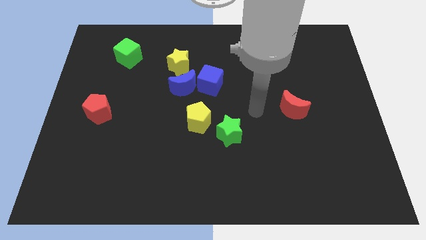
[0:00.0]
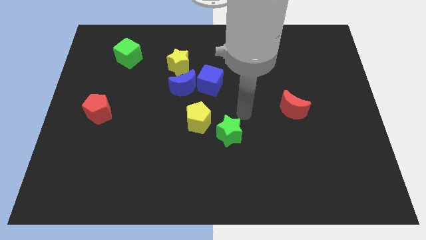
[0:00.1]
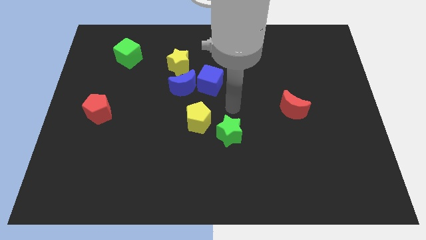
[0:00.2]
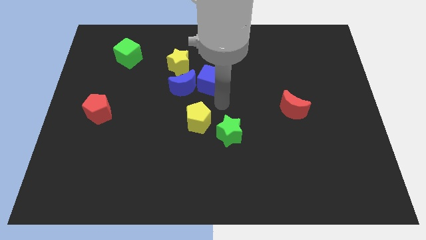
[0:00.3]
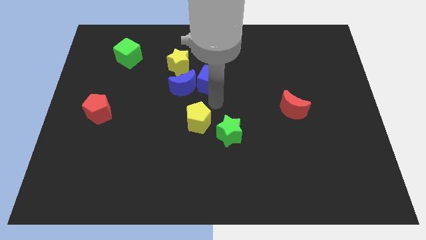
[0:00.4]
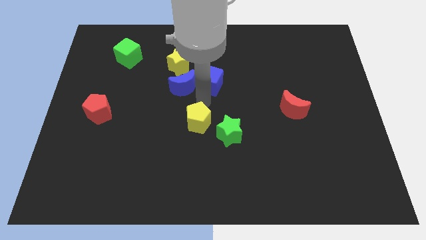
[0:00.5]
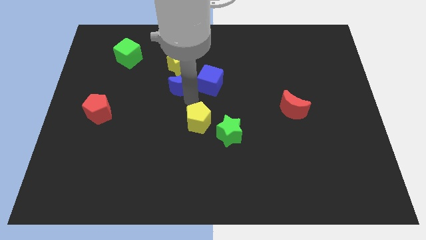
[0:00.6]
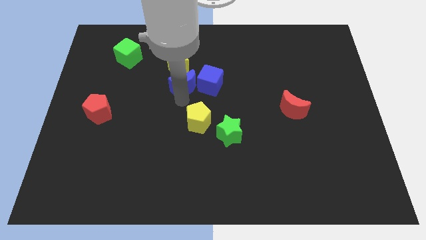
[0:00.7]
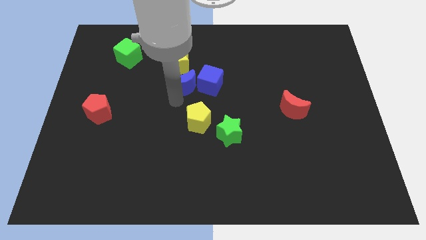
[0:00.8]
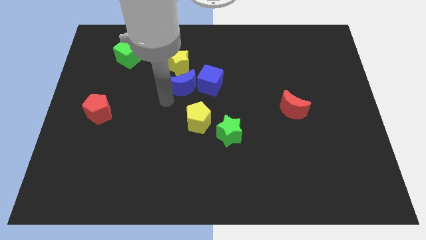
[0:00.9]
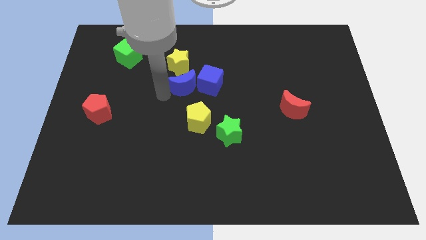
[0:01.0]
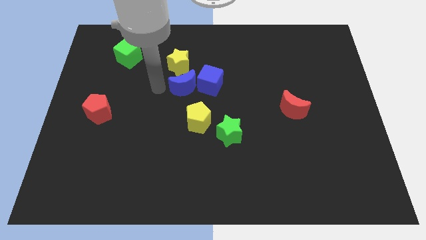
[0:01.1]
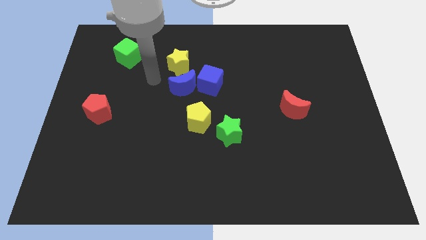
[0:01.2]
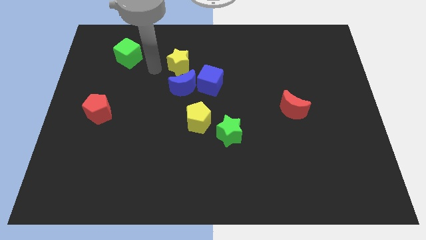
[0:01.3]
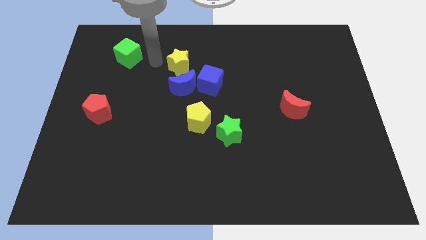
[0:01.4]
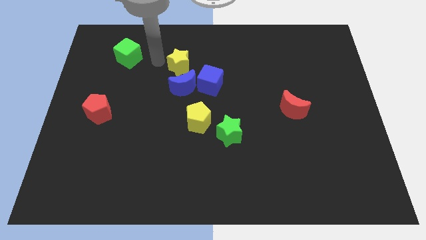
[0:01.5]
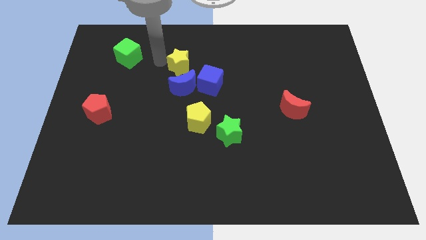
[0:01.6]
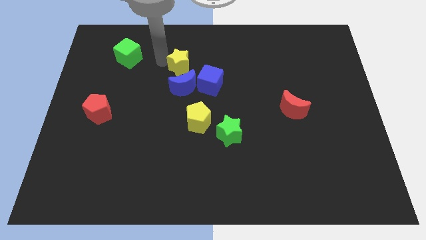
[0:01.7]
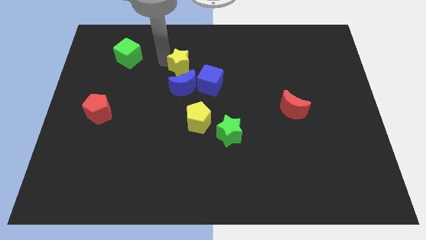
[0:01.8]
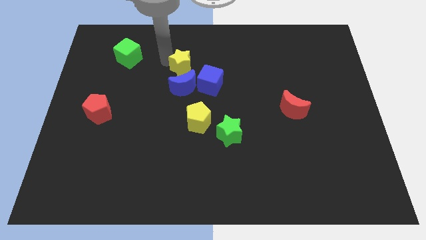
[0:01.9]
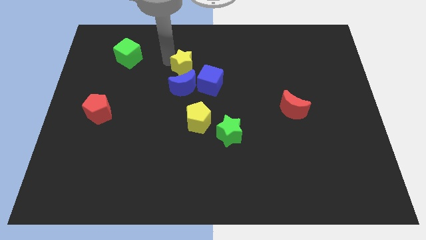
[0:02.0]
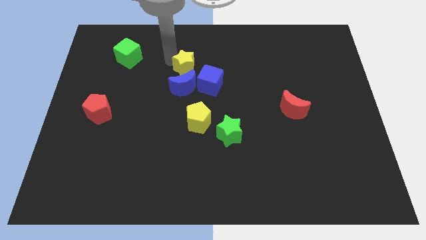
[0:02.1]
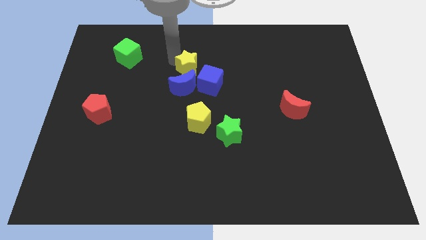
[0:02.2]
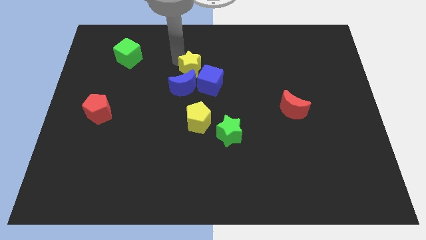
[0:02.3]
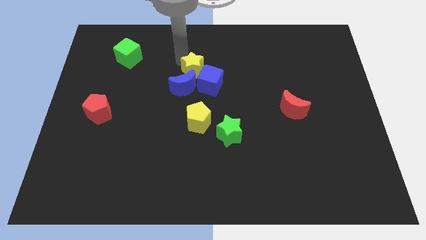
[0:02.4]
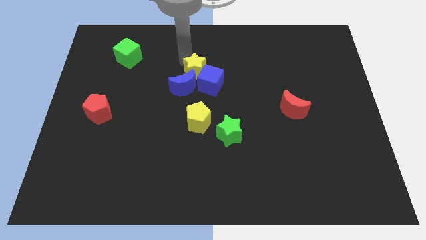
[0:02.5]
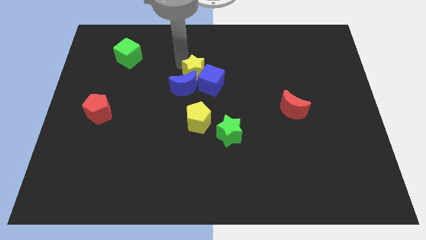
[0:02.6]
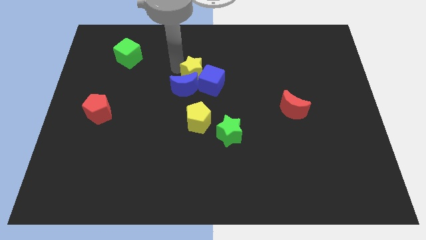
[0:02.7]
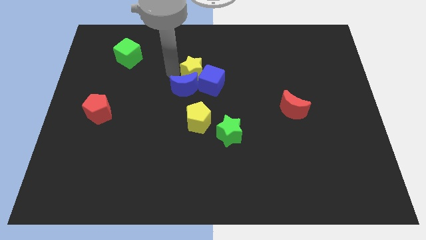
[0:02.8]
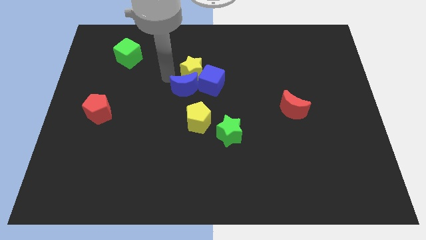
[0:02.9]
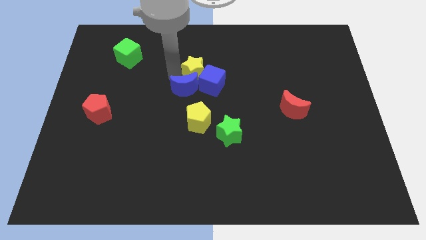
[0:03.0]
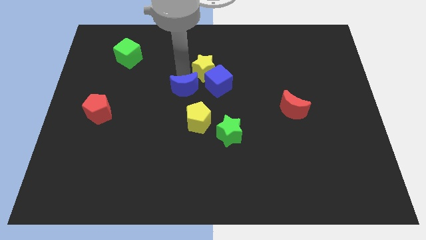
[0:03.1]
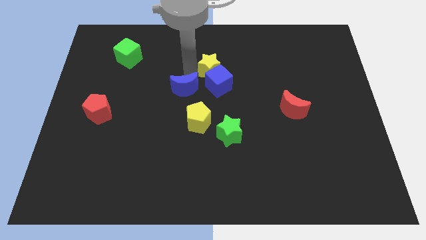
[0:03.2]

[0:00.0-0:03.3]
move the yellow star to the right somewhat

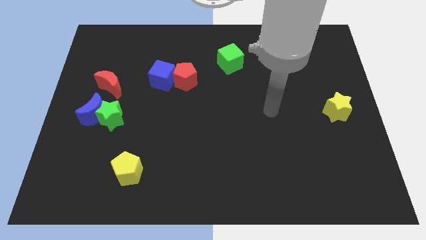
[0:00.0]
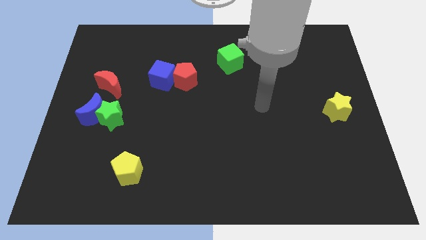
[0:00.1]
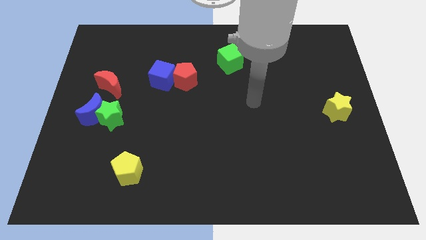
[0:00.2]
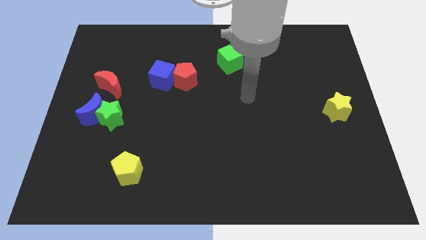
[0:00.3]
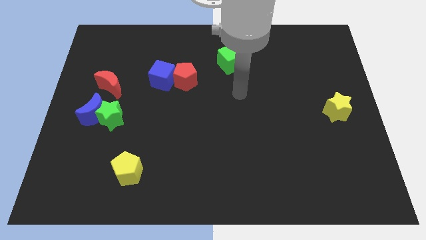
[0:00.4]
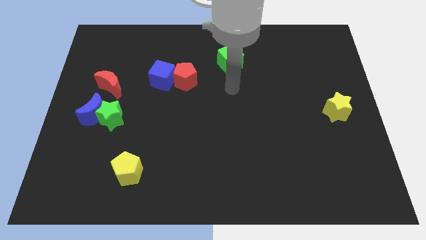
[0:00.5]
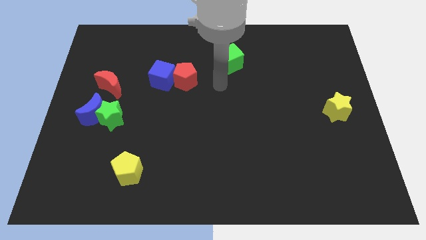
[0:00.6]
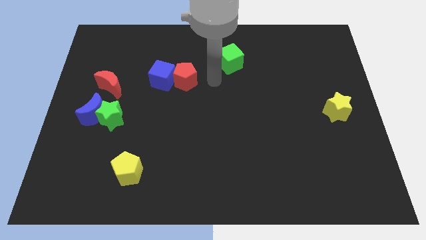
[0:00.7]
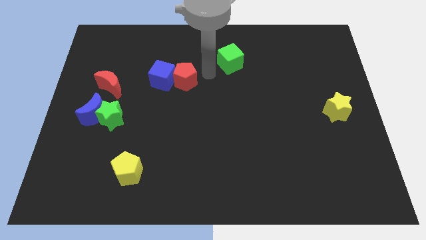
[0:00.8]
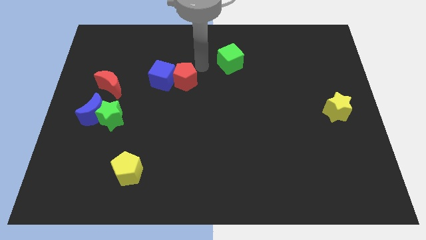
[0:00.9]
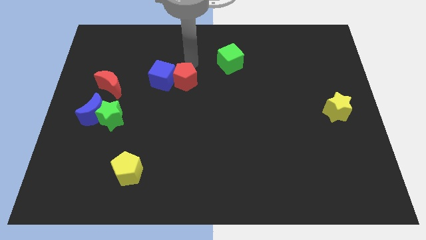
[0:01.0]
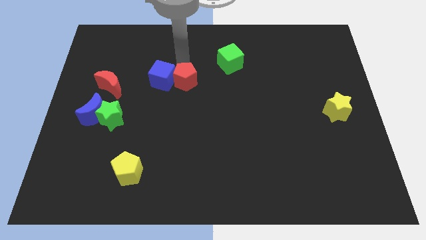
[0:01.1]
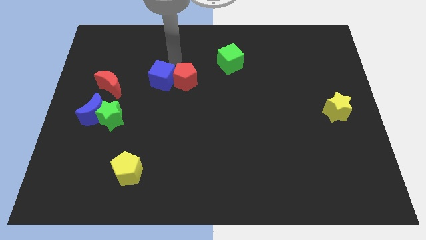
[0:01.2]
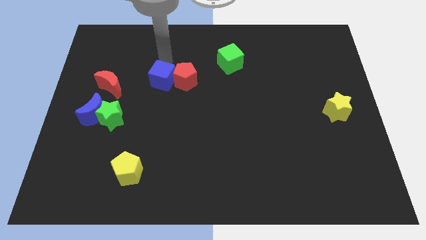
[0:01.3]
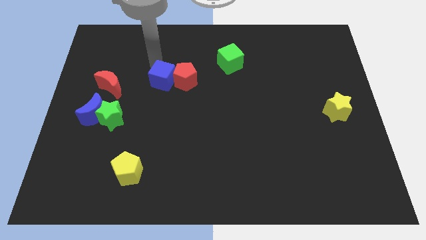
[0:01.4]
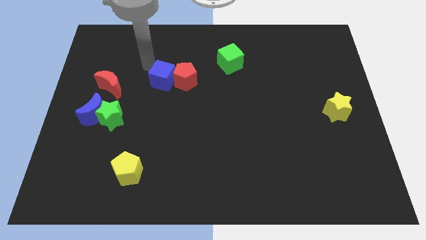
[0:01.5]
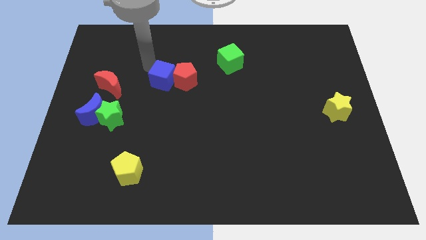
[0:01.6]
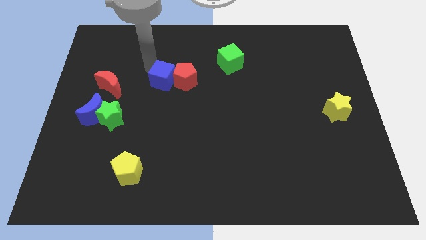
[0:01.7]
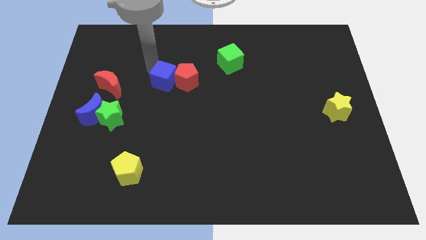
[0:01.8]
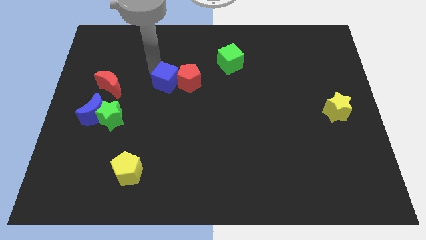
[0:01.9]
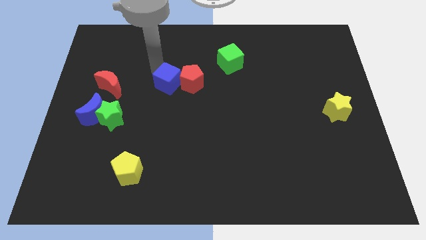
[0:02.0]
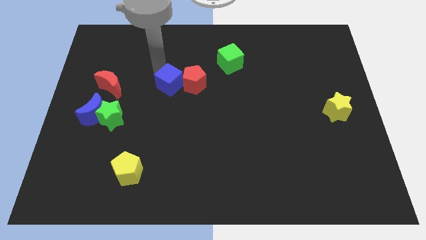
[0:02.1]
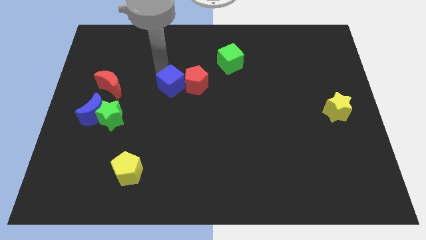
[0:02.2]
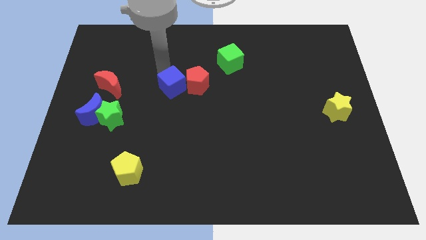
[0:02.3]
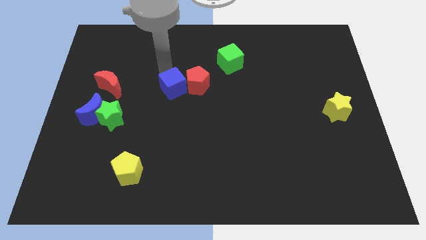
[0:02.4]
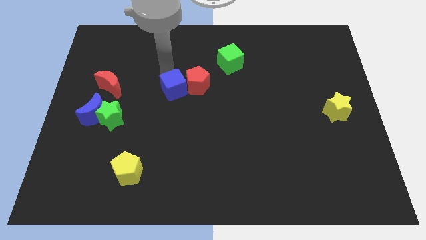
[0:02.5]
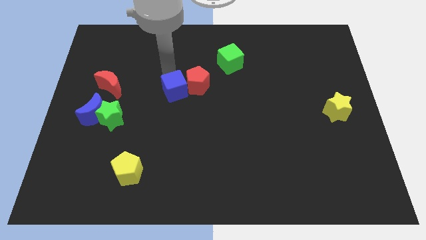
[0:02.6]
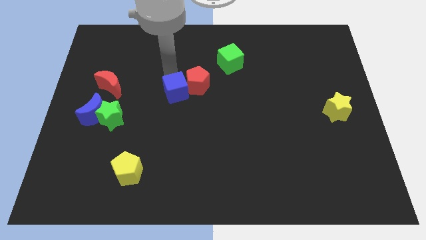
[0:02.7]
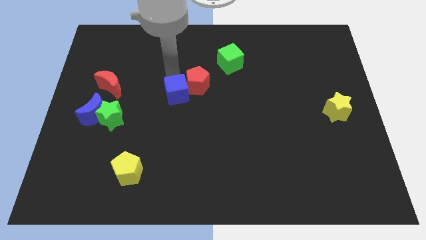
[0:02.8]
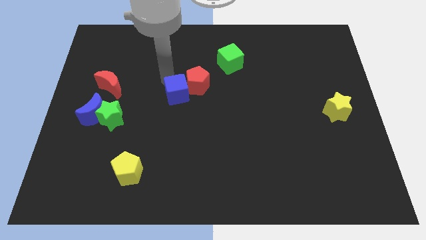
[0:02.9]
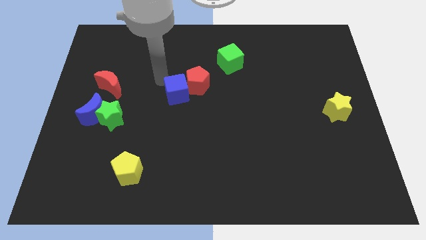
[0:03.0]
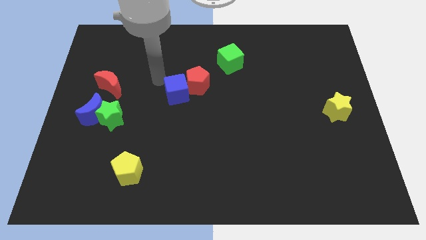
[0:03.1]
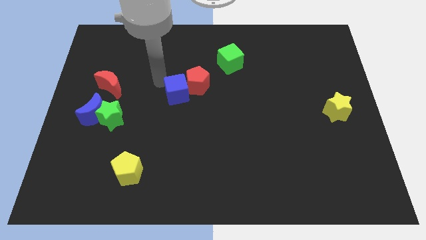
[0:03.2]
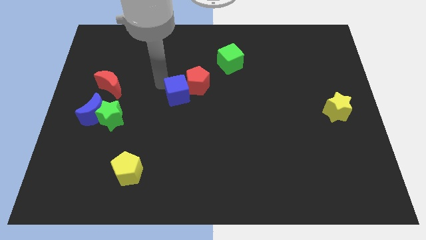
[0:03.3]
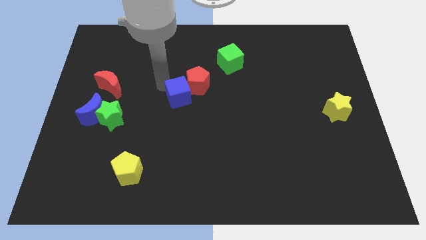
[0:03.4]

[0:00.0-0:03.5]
slightly push the blue cube down and right diagonally

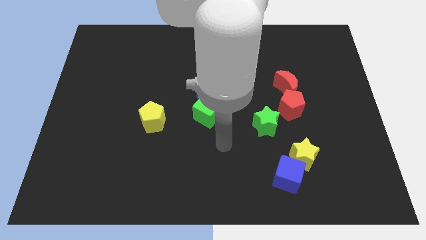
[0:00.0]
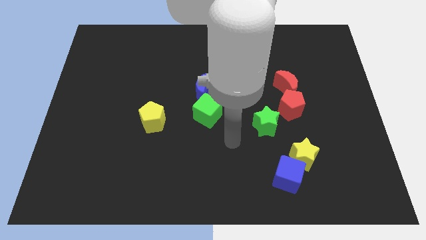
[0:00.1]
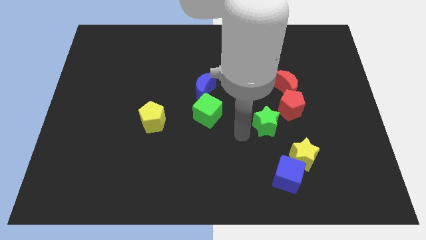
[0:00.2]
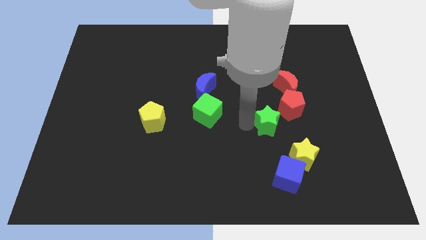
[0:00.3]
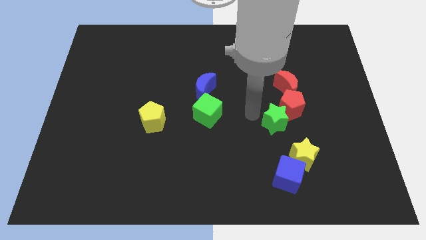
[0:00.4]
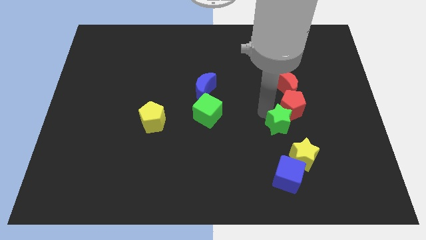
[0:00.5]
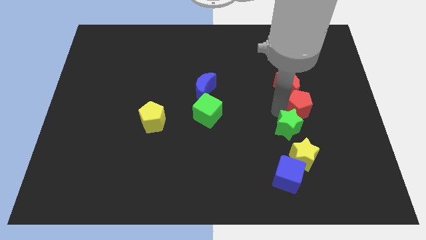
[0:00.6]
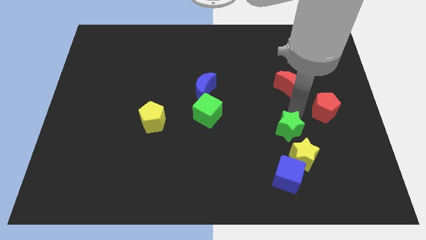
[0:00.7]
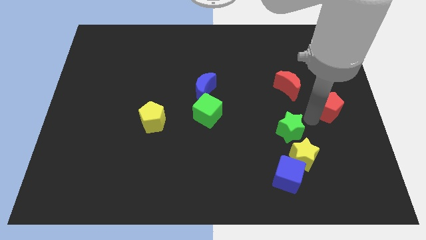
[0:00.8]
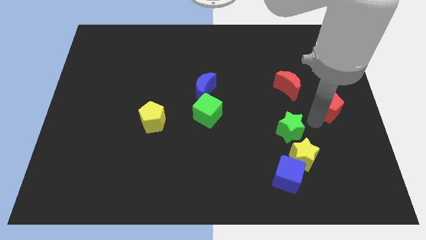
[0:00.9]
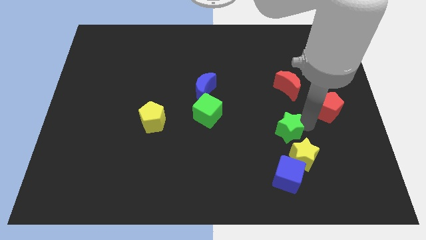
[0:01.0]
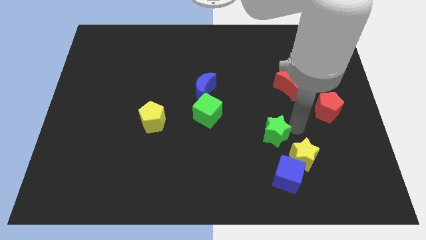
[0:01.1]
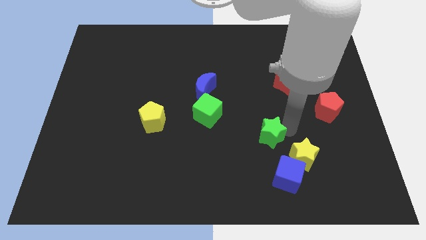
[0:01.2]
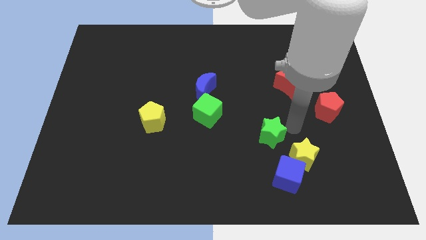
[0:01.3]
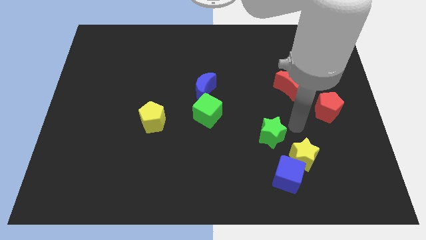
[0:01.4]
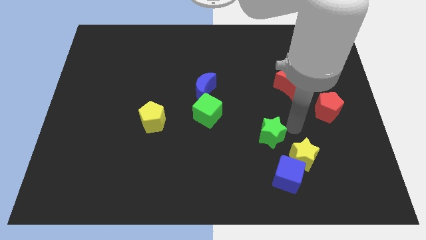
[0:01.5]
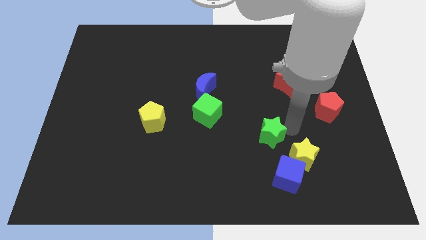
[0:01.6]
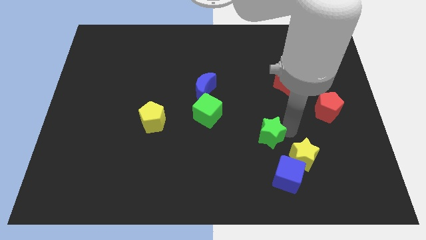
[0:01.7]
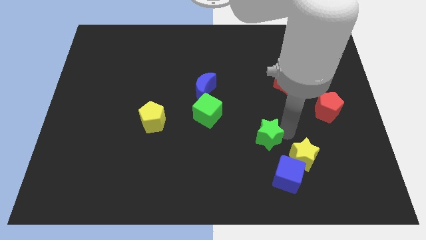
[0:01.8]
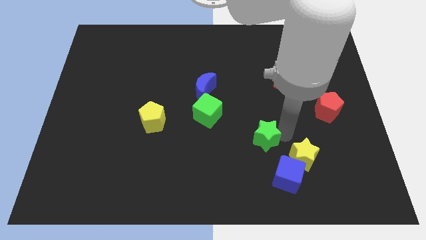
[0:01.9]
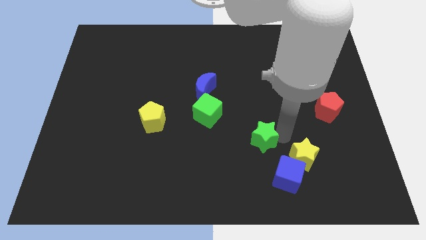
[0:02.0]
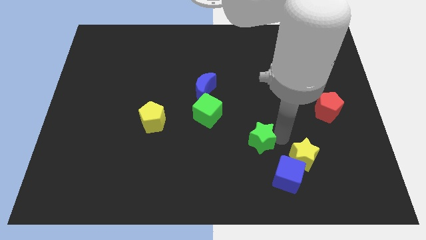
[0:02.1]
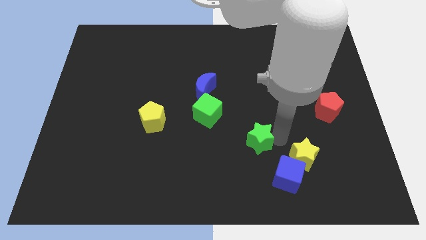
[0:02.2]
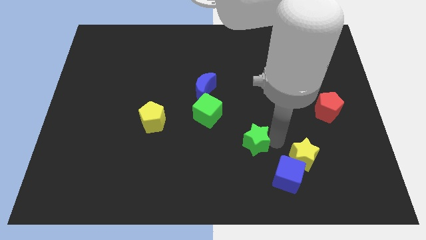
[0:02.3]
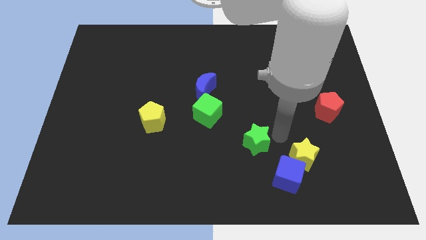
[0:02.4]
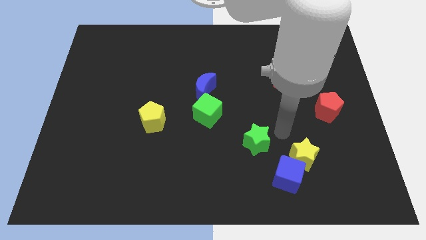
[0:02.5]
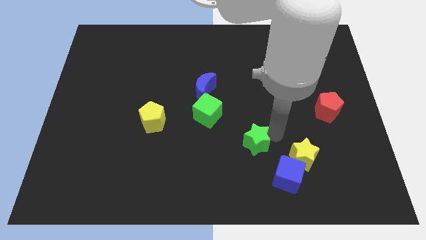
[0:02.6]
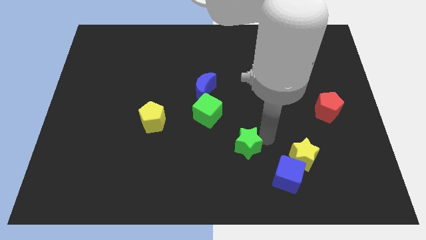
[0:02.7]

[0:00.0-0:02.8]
slightly slide the green star downwards and to the left diagonally
